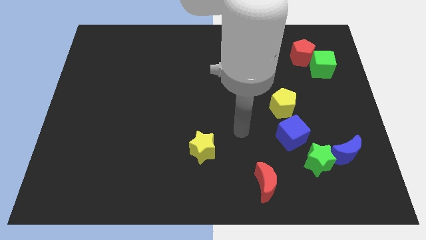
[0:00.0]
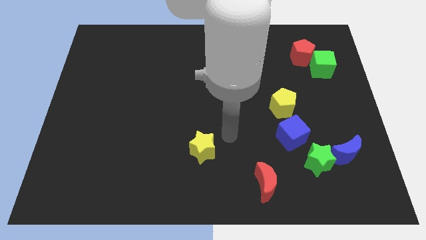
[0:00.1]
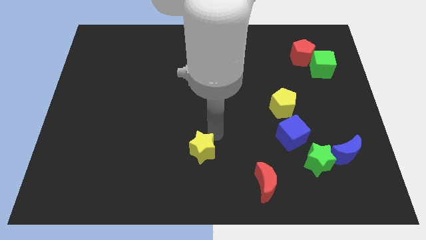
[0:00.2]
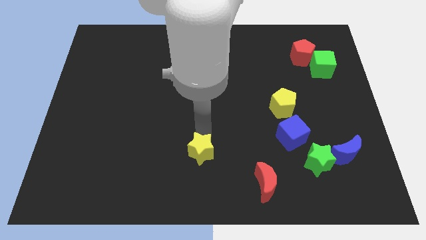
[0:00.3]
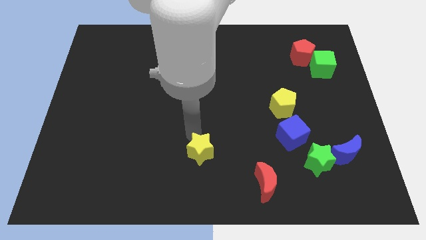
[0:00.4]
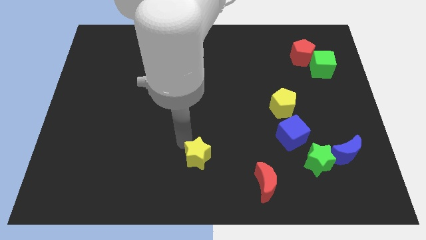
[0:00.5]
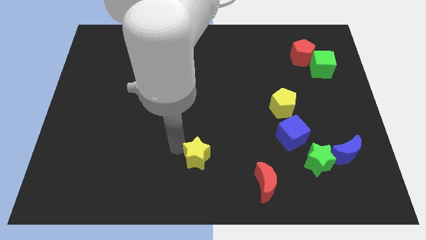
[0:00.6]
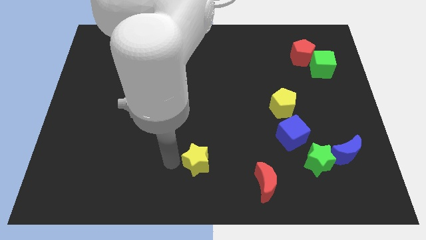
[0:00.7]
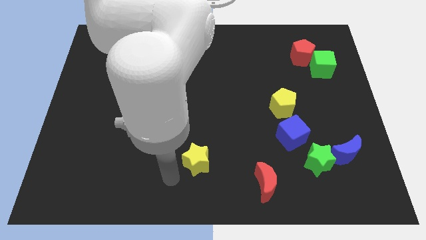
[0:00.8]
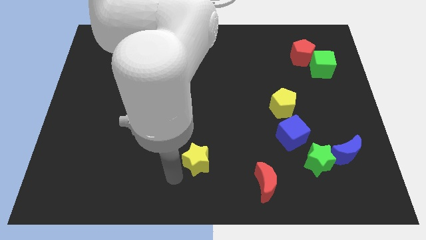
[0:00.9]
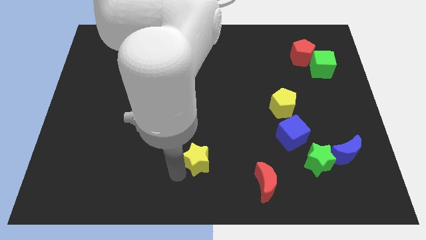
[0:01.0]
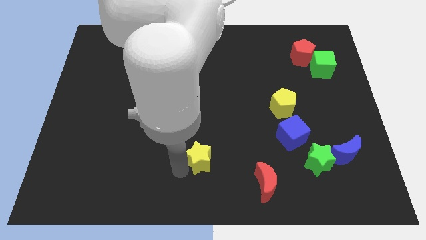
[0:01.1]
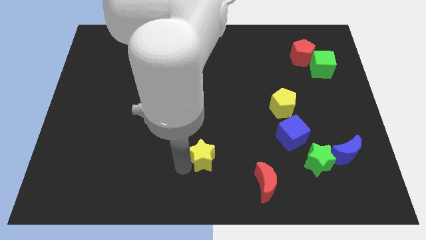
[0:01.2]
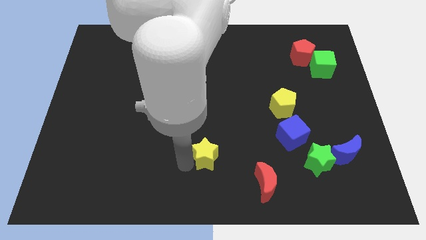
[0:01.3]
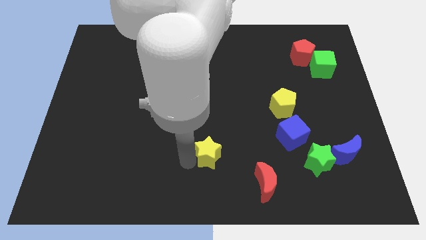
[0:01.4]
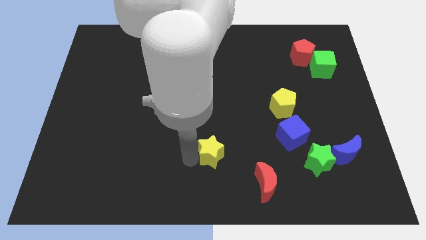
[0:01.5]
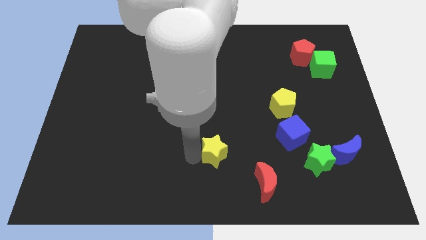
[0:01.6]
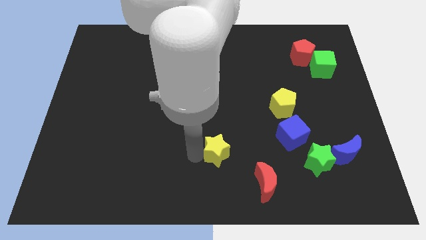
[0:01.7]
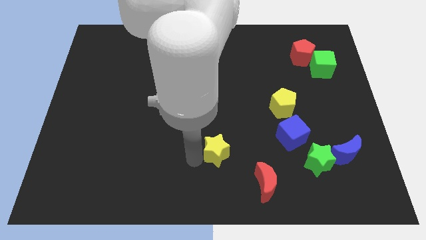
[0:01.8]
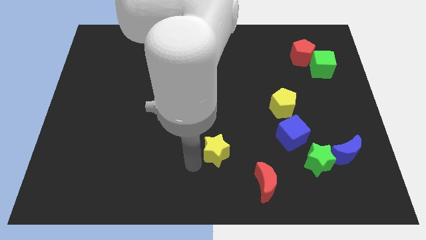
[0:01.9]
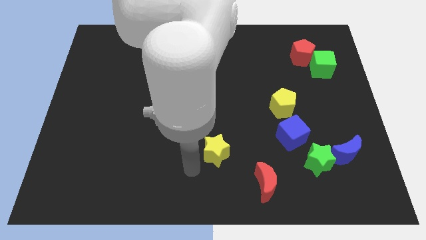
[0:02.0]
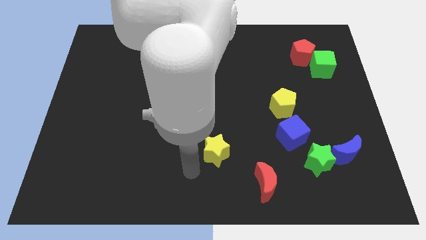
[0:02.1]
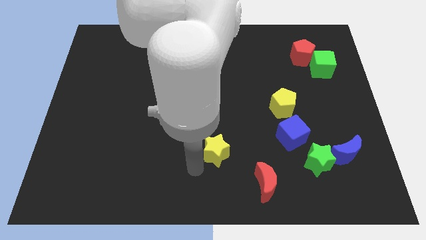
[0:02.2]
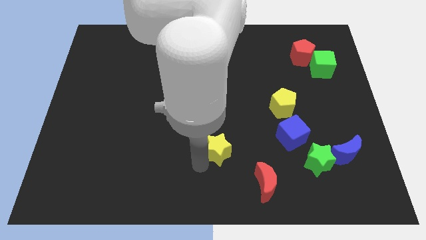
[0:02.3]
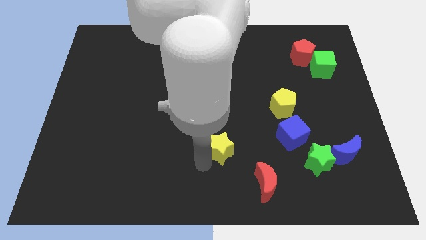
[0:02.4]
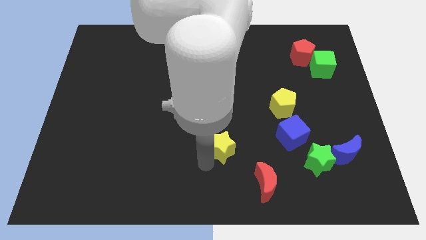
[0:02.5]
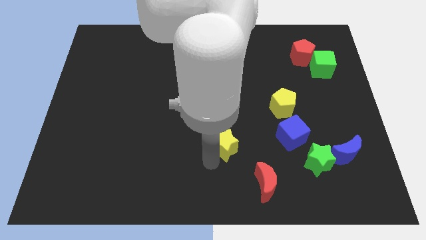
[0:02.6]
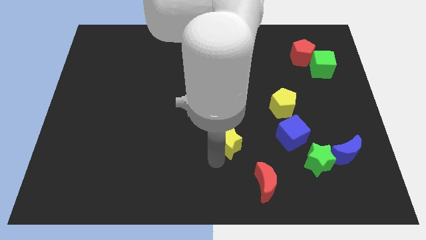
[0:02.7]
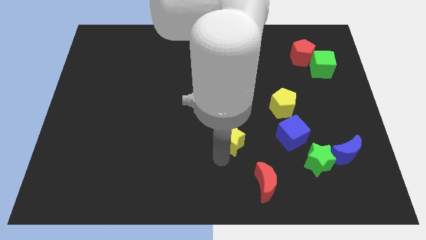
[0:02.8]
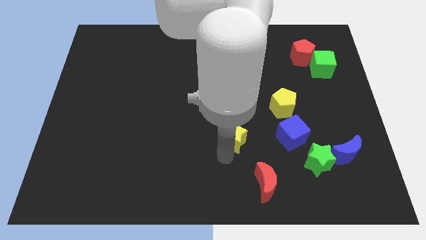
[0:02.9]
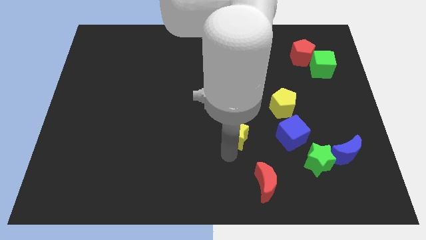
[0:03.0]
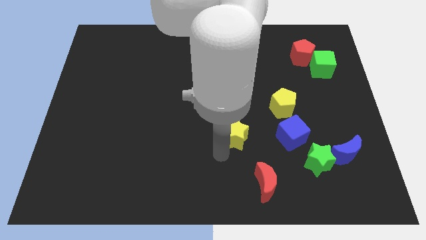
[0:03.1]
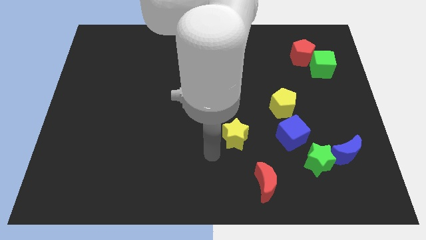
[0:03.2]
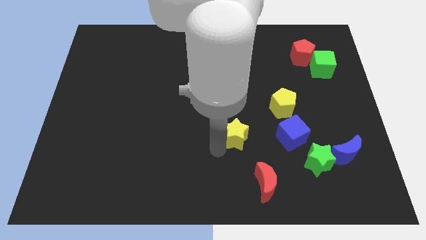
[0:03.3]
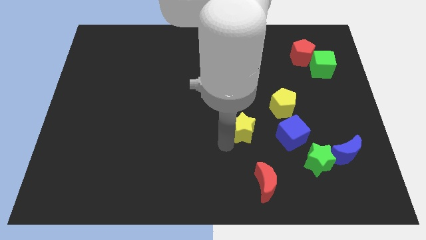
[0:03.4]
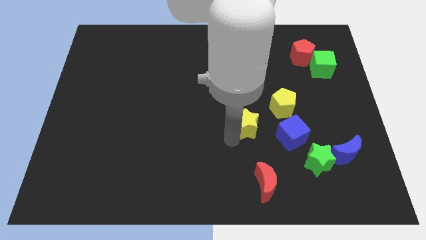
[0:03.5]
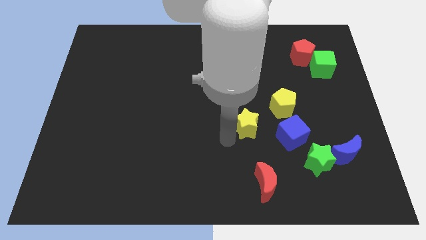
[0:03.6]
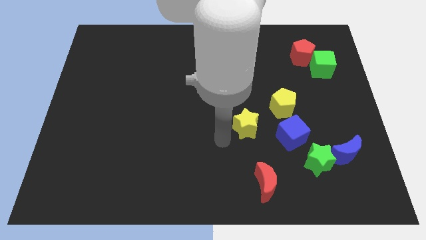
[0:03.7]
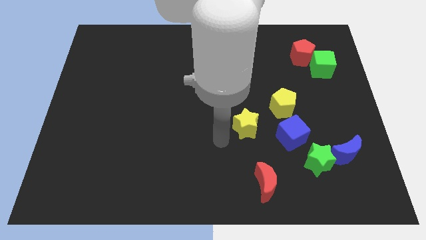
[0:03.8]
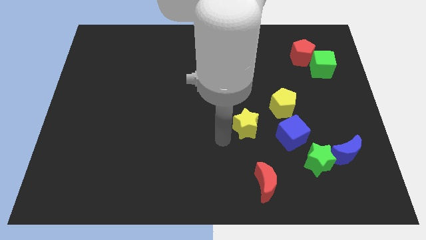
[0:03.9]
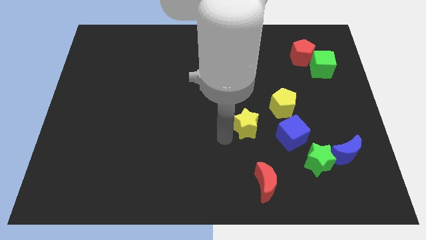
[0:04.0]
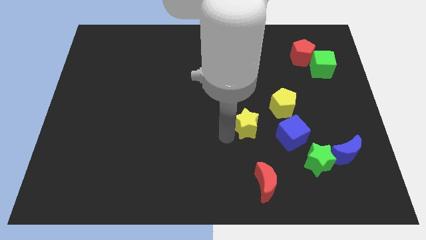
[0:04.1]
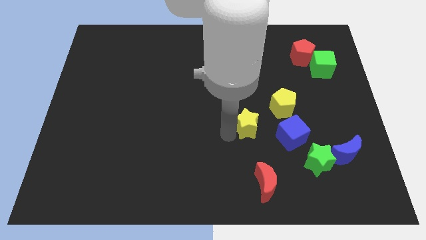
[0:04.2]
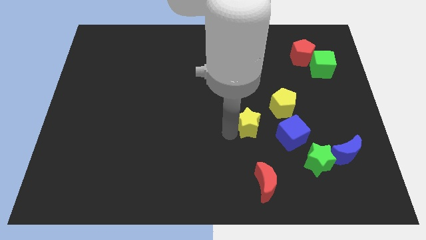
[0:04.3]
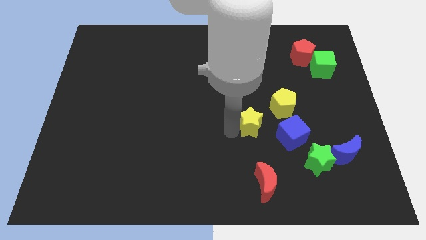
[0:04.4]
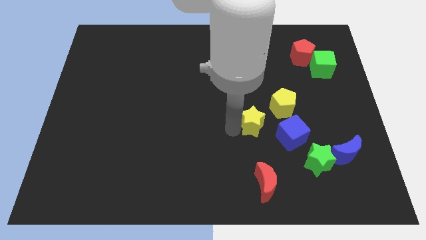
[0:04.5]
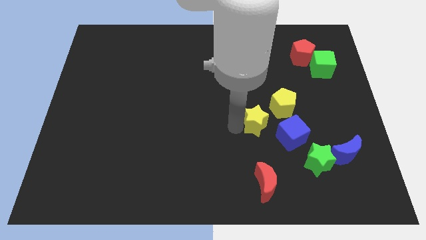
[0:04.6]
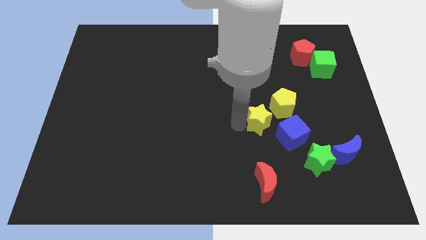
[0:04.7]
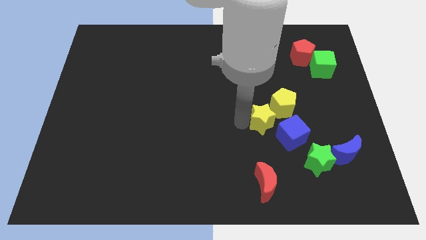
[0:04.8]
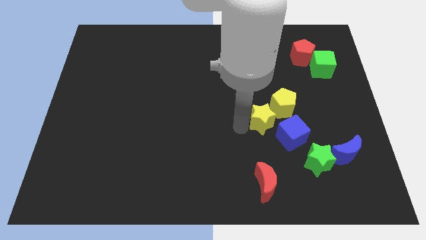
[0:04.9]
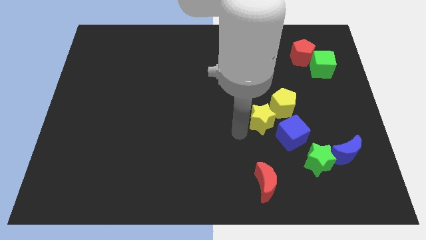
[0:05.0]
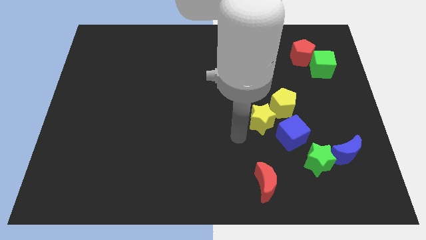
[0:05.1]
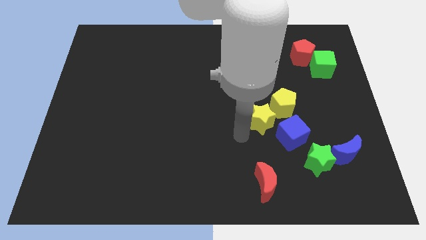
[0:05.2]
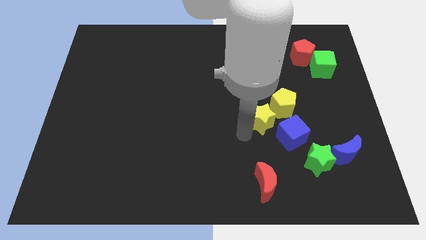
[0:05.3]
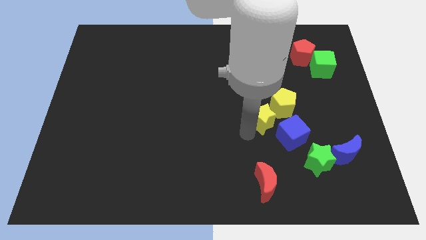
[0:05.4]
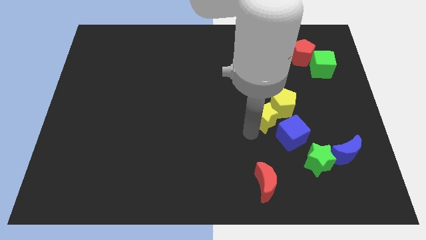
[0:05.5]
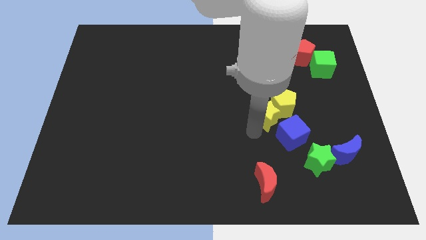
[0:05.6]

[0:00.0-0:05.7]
slide the yellow star towards the yellow pentagon

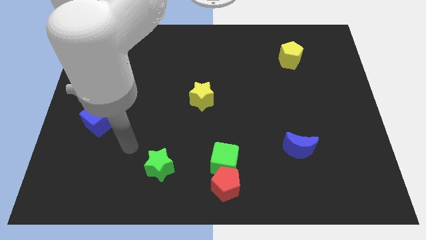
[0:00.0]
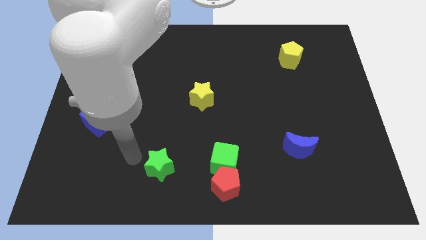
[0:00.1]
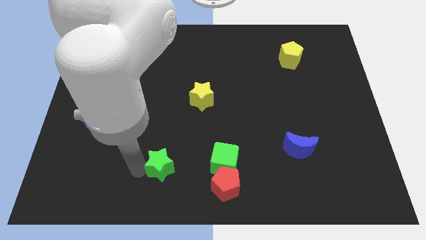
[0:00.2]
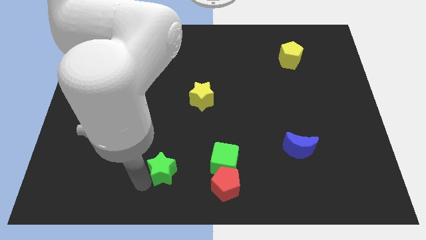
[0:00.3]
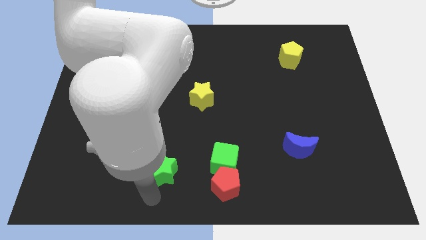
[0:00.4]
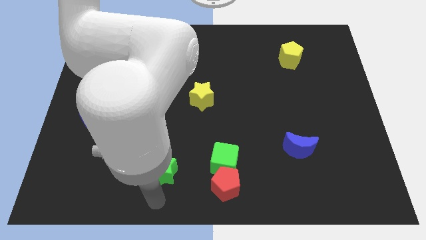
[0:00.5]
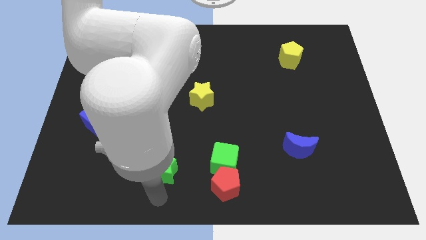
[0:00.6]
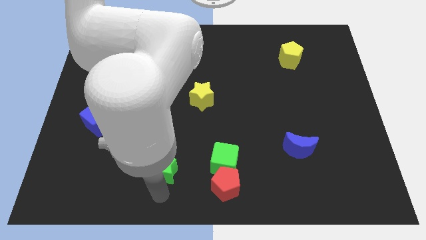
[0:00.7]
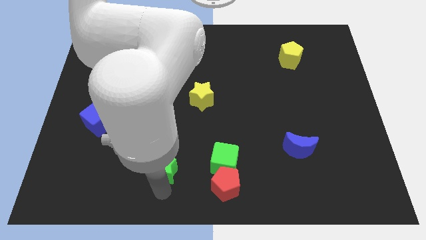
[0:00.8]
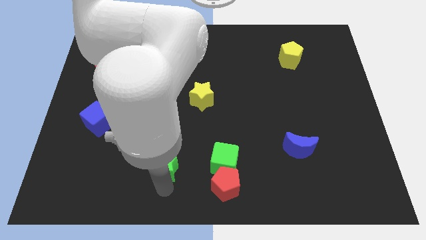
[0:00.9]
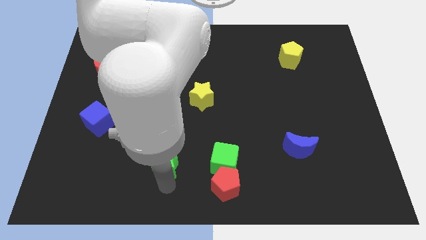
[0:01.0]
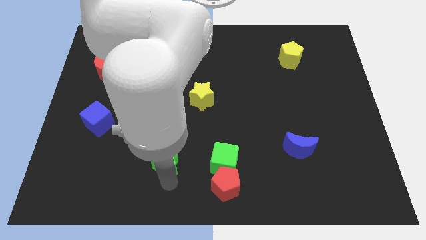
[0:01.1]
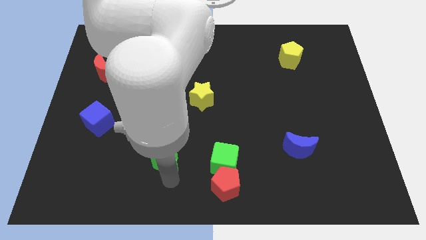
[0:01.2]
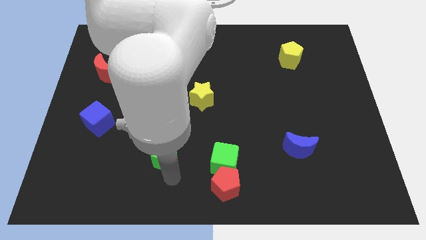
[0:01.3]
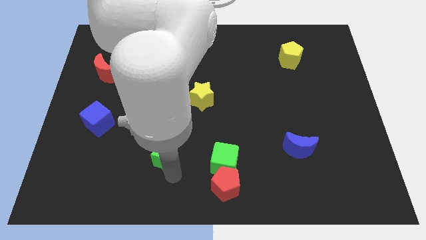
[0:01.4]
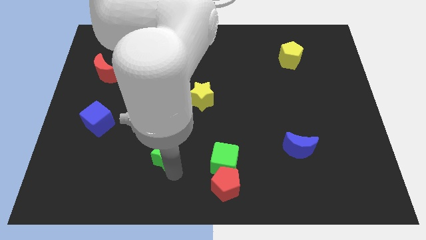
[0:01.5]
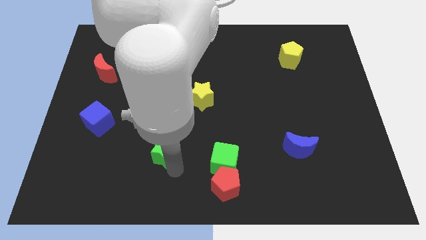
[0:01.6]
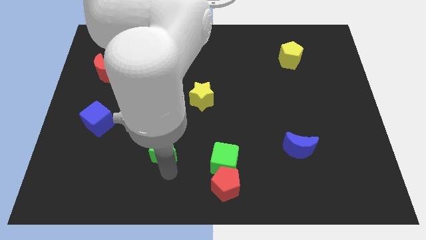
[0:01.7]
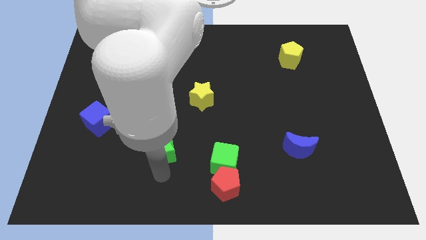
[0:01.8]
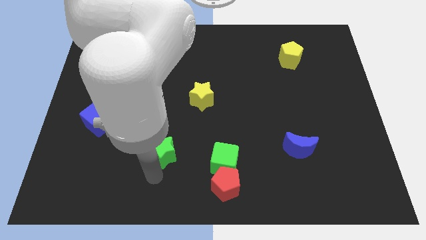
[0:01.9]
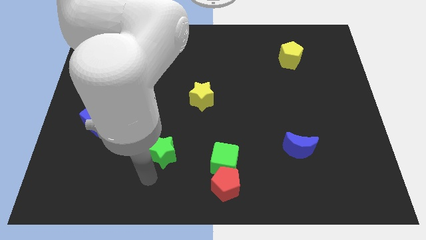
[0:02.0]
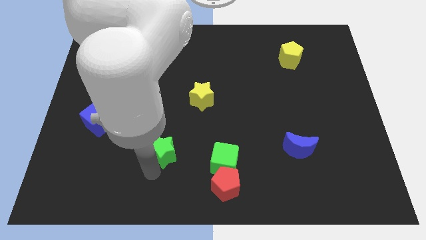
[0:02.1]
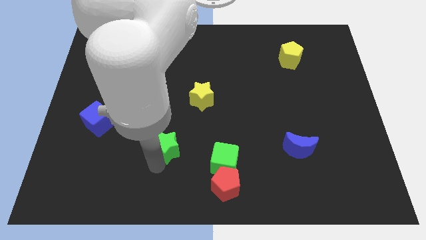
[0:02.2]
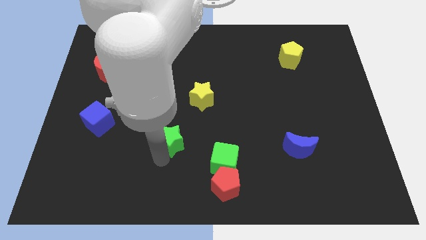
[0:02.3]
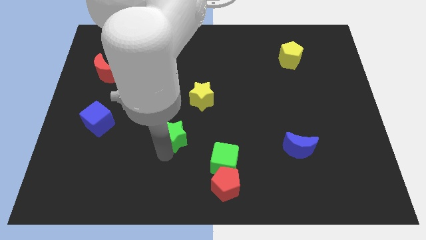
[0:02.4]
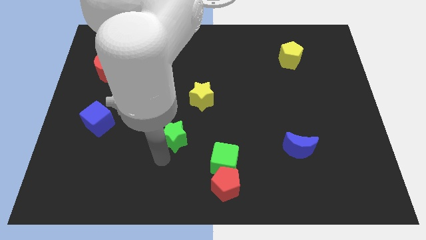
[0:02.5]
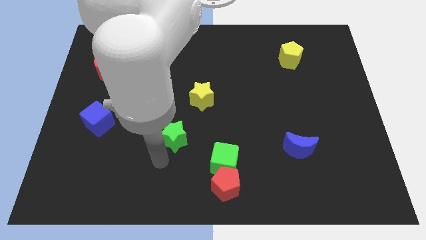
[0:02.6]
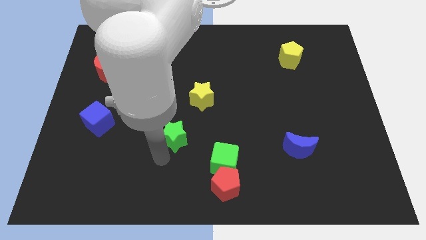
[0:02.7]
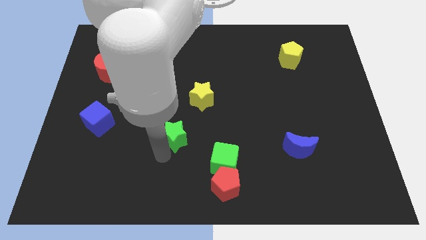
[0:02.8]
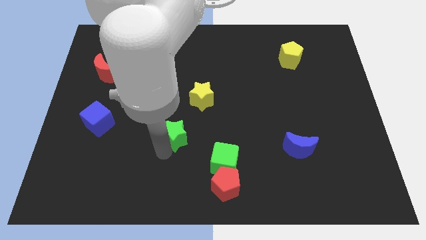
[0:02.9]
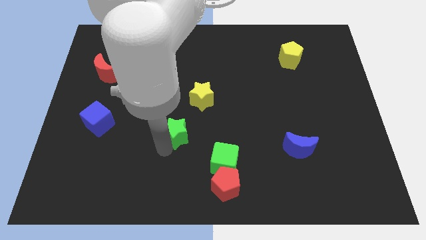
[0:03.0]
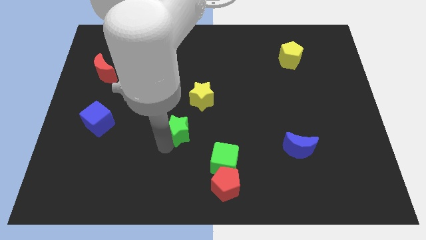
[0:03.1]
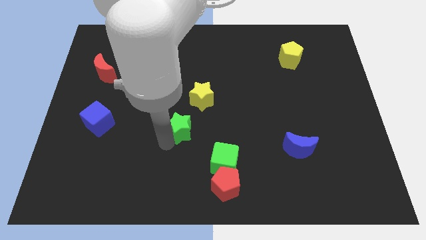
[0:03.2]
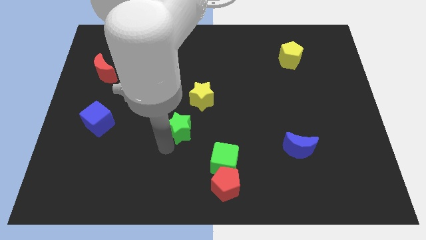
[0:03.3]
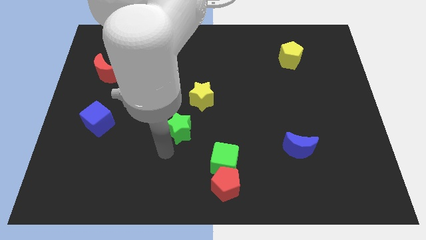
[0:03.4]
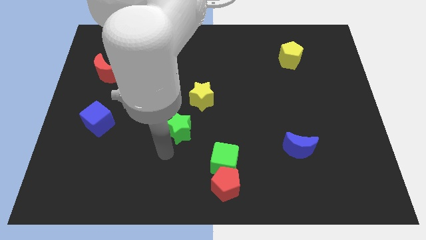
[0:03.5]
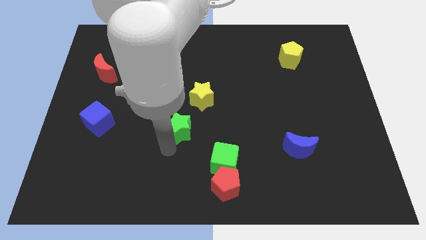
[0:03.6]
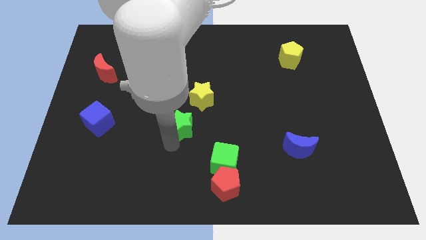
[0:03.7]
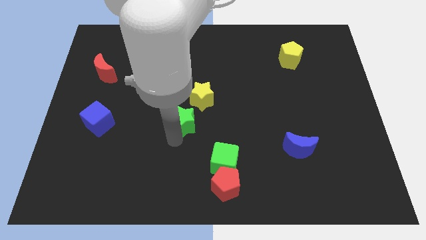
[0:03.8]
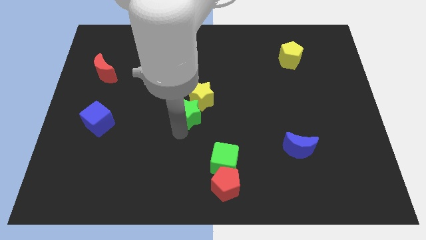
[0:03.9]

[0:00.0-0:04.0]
put the green star next to the yellow star
